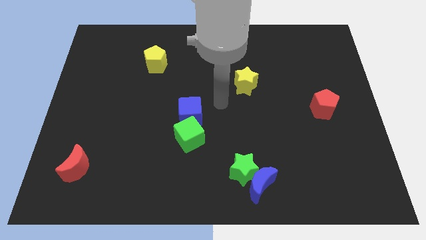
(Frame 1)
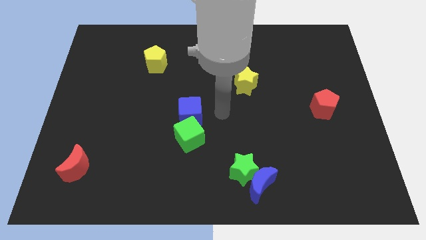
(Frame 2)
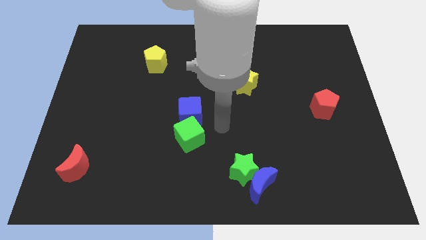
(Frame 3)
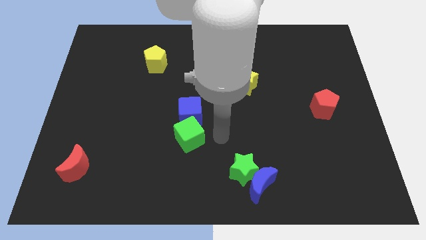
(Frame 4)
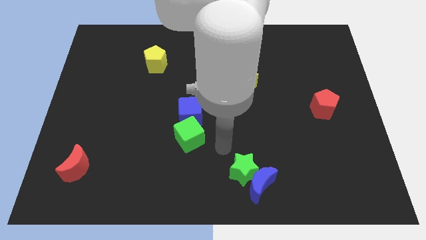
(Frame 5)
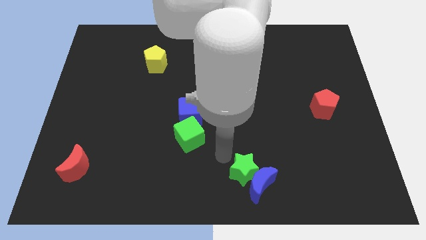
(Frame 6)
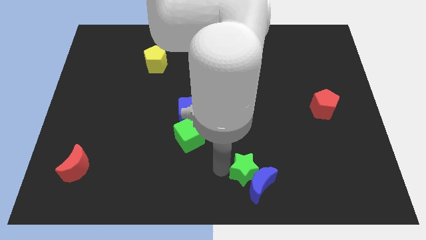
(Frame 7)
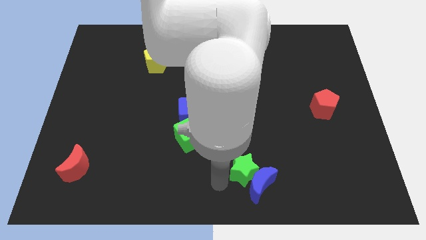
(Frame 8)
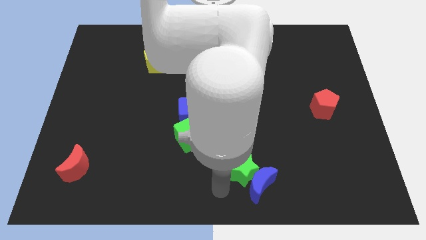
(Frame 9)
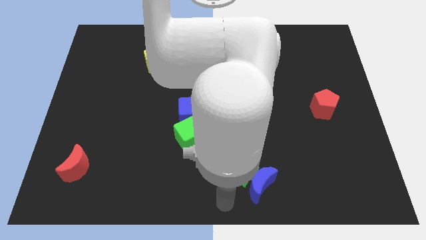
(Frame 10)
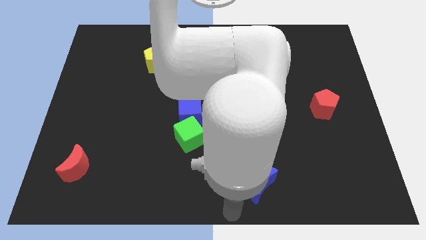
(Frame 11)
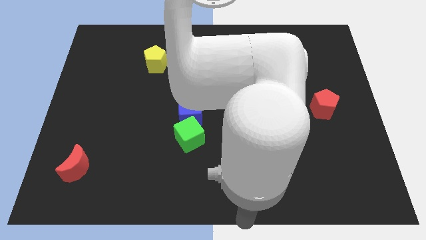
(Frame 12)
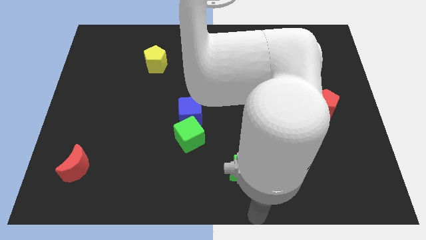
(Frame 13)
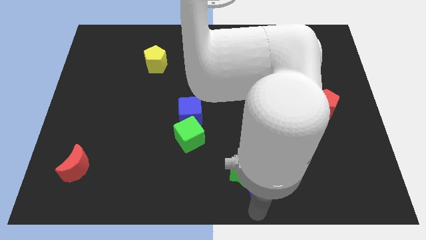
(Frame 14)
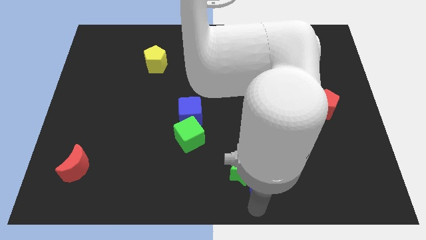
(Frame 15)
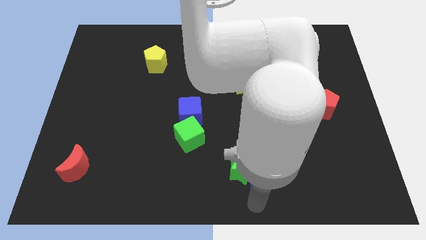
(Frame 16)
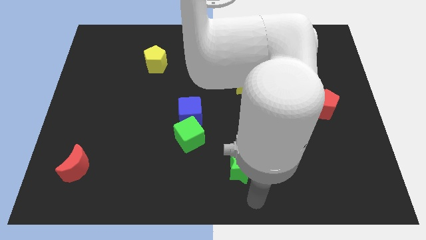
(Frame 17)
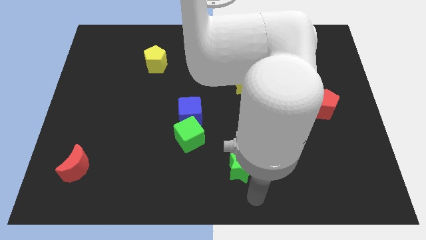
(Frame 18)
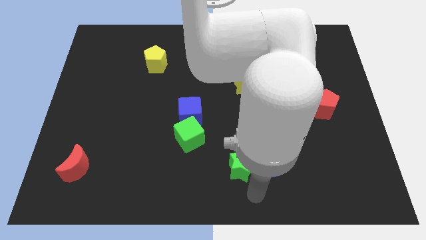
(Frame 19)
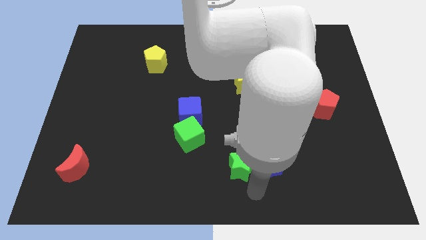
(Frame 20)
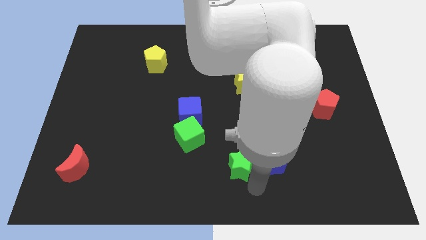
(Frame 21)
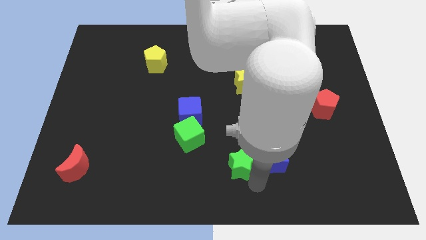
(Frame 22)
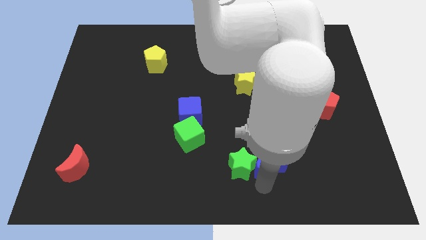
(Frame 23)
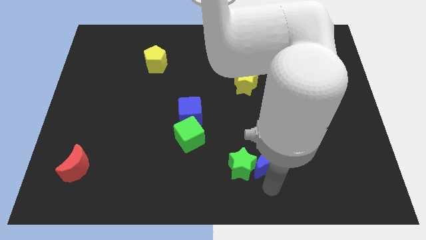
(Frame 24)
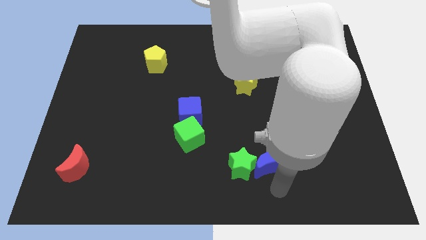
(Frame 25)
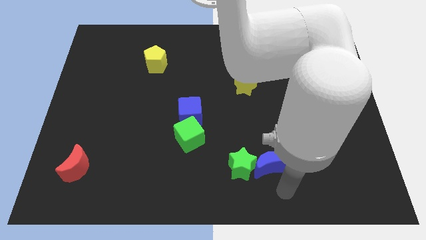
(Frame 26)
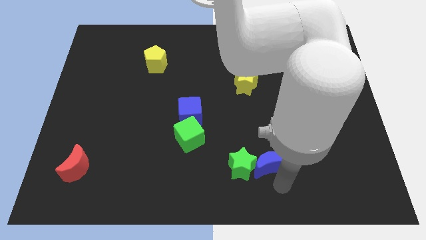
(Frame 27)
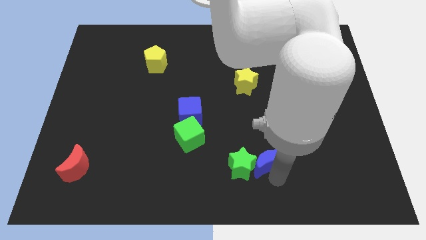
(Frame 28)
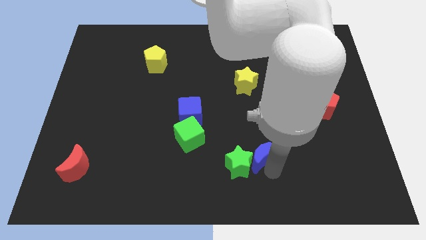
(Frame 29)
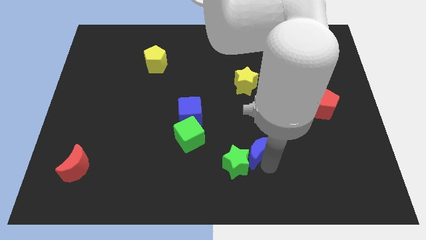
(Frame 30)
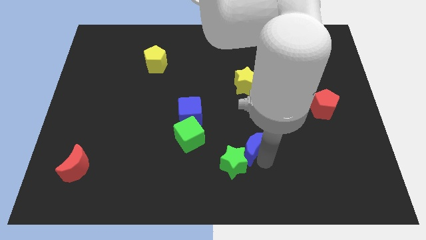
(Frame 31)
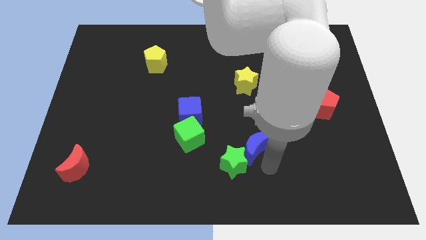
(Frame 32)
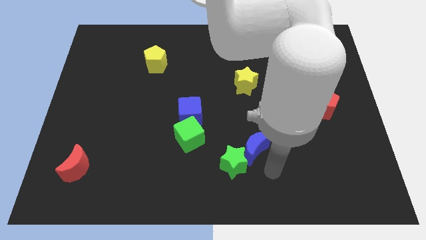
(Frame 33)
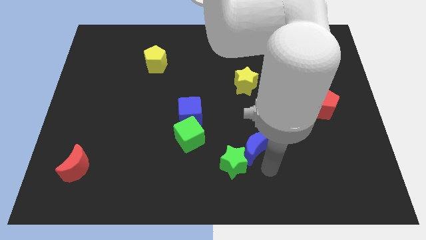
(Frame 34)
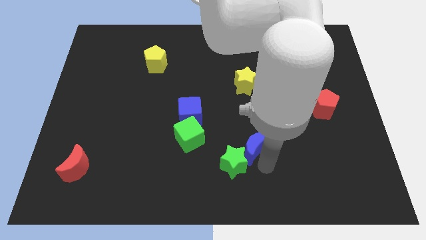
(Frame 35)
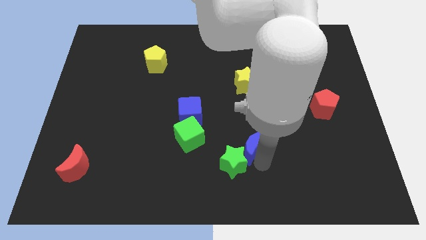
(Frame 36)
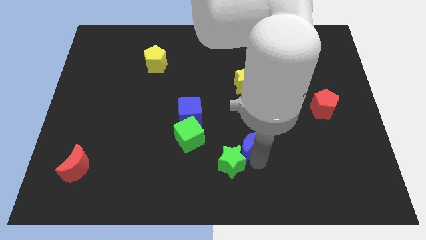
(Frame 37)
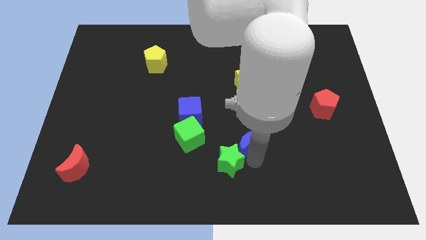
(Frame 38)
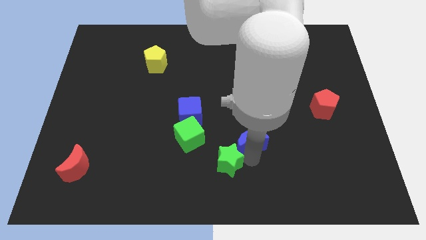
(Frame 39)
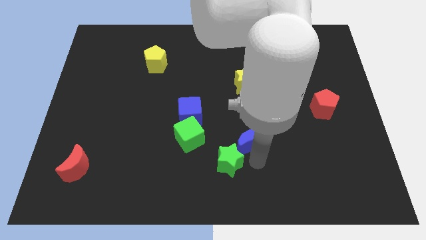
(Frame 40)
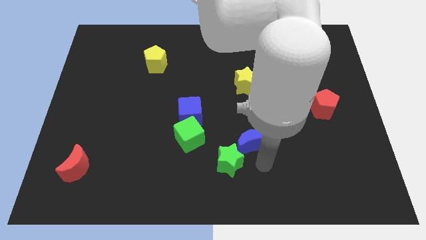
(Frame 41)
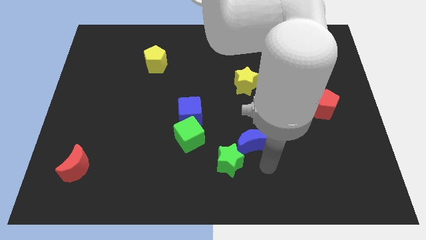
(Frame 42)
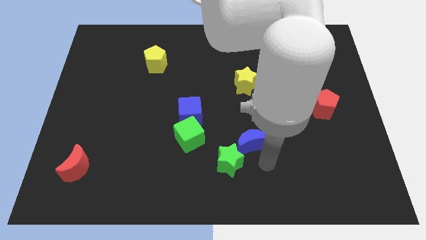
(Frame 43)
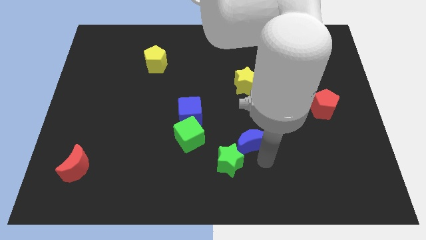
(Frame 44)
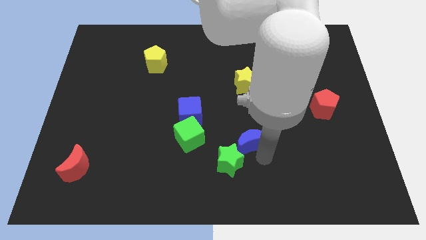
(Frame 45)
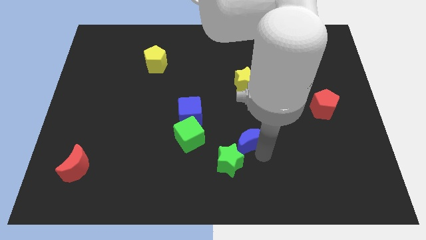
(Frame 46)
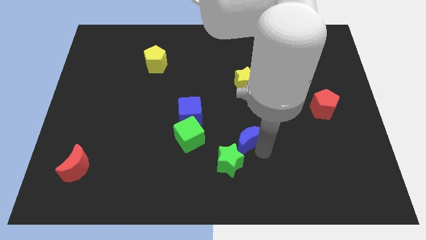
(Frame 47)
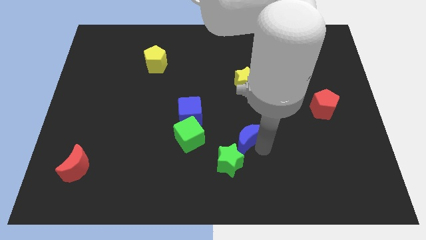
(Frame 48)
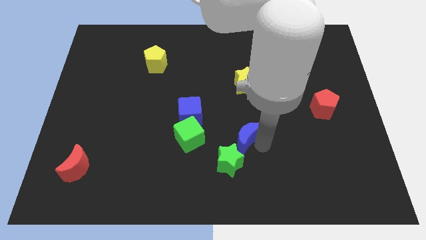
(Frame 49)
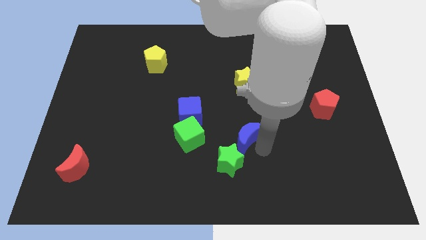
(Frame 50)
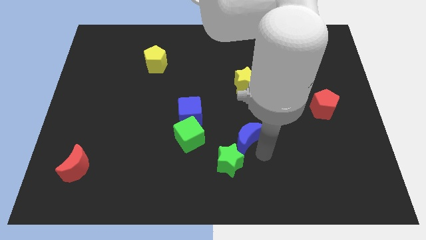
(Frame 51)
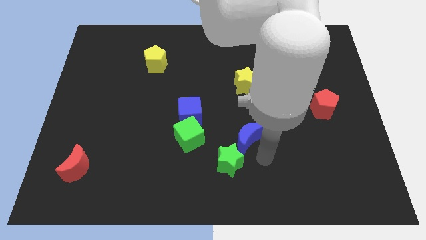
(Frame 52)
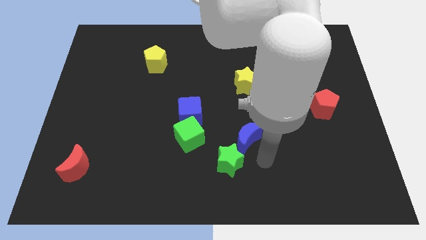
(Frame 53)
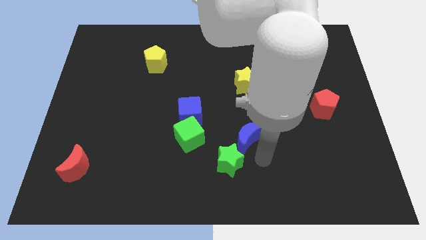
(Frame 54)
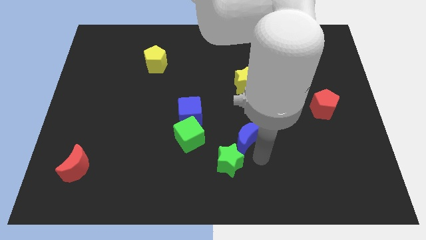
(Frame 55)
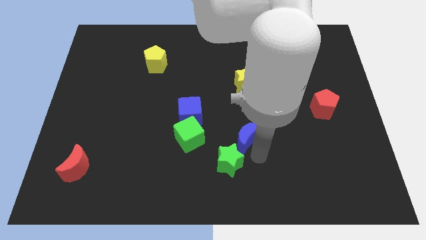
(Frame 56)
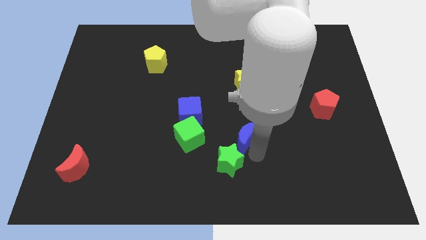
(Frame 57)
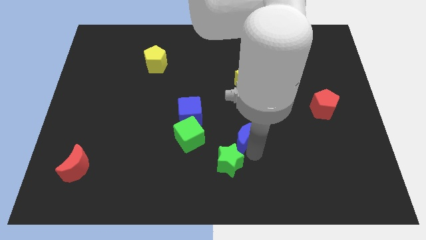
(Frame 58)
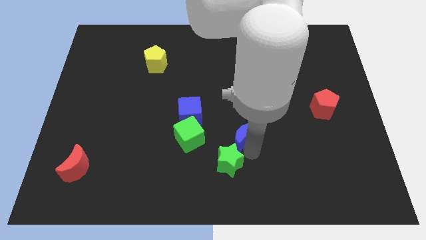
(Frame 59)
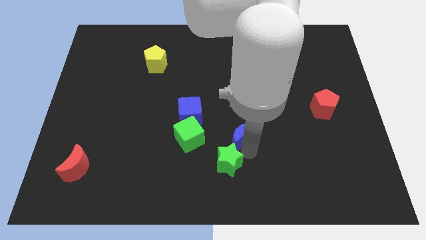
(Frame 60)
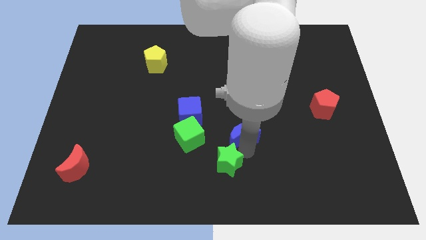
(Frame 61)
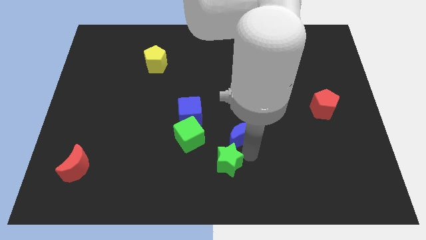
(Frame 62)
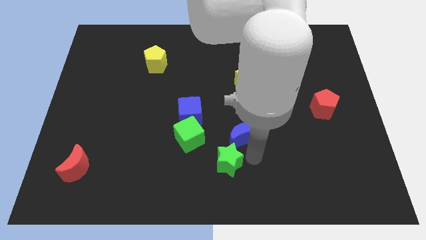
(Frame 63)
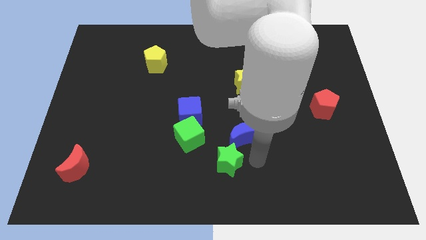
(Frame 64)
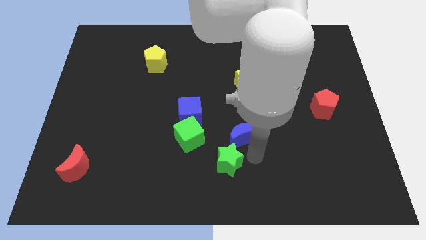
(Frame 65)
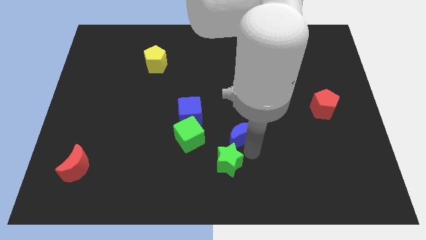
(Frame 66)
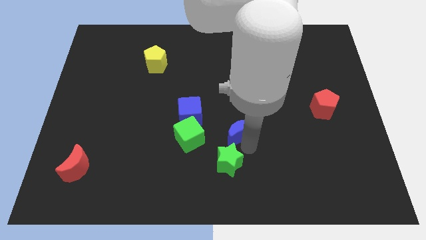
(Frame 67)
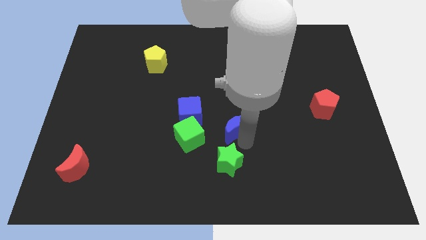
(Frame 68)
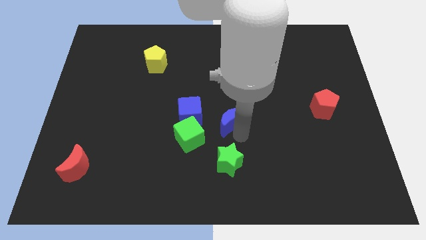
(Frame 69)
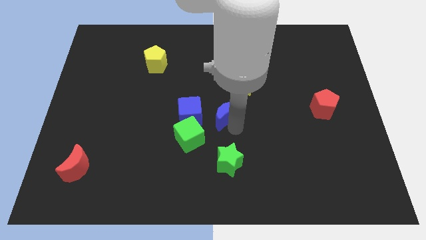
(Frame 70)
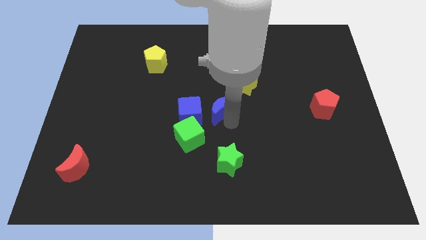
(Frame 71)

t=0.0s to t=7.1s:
move the blue moon to the top right side of the blue cube

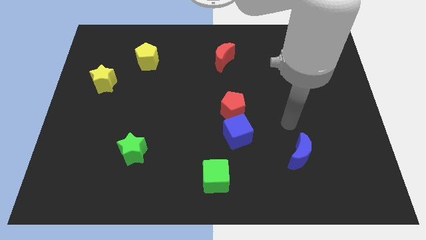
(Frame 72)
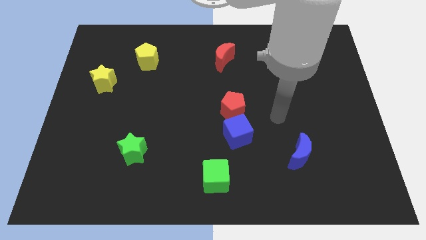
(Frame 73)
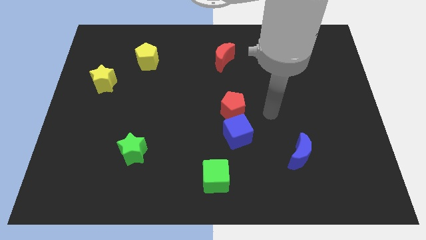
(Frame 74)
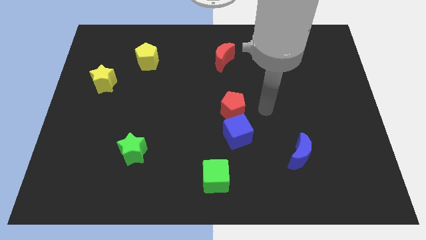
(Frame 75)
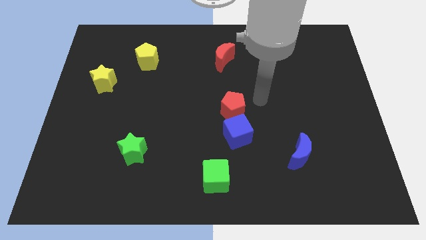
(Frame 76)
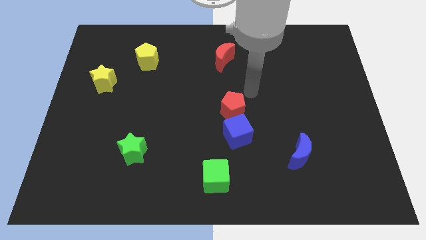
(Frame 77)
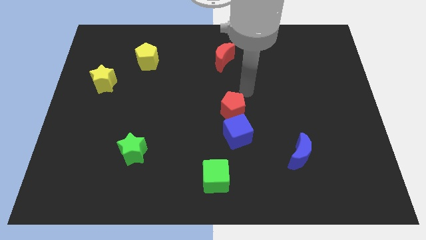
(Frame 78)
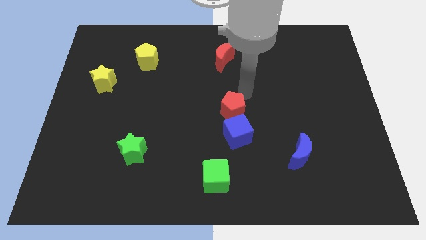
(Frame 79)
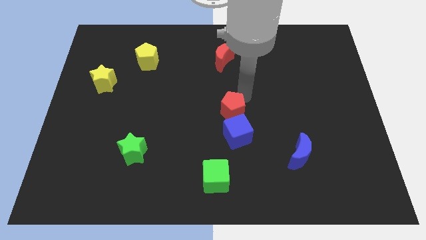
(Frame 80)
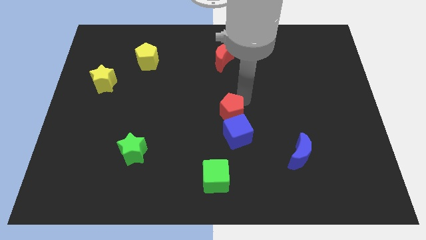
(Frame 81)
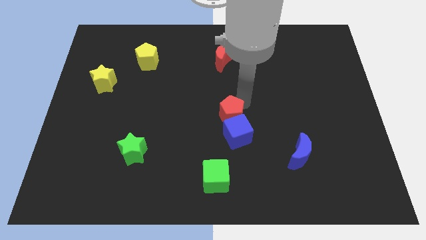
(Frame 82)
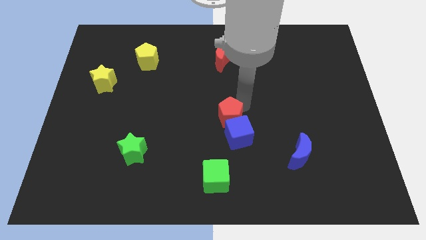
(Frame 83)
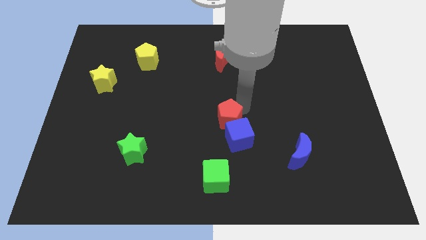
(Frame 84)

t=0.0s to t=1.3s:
push the red pentagon above the green cube
